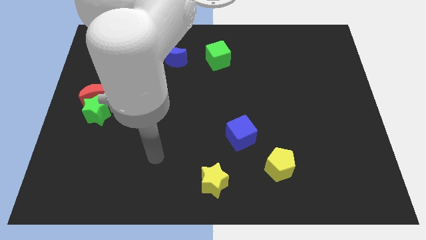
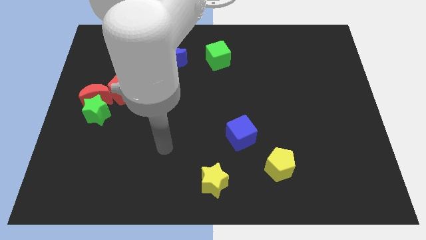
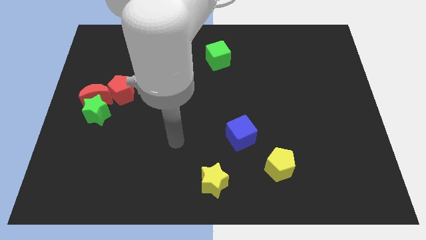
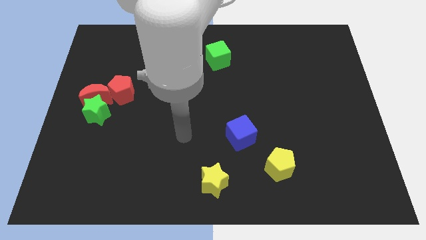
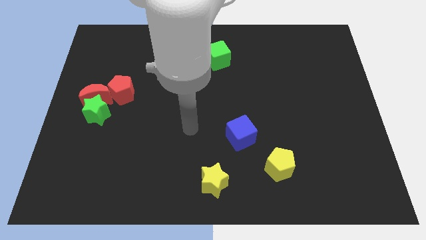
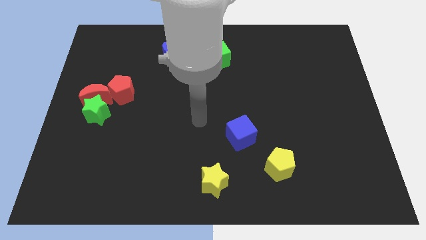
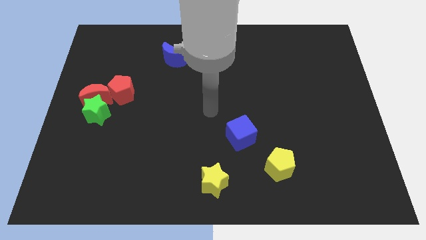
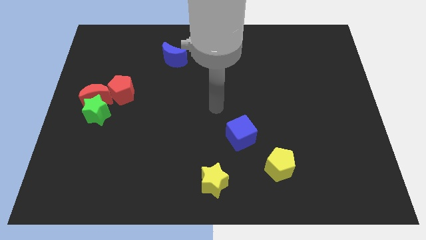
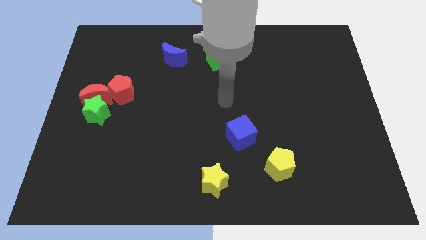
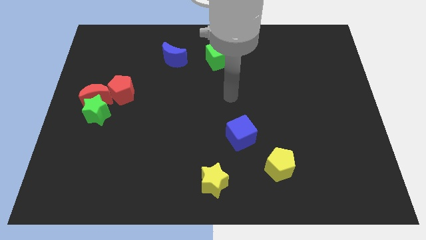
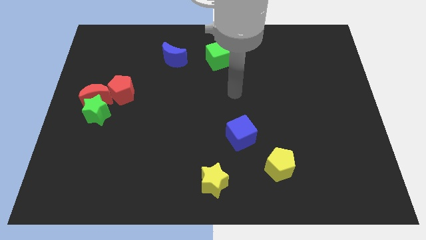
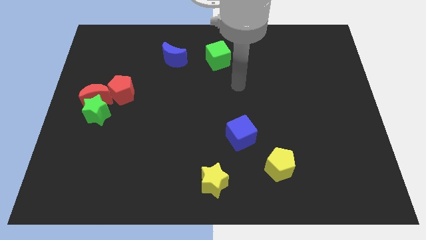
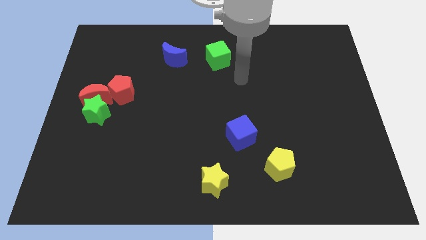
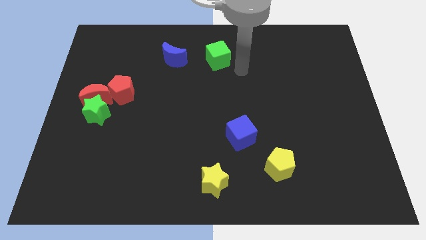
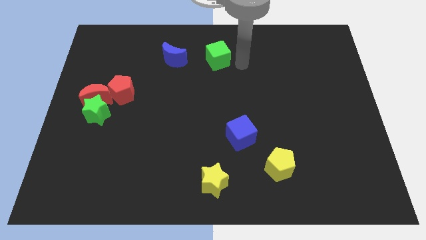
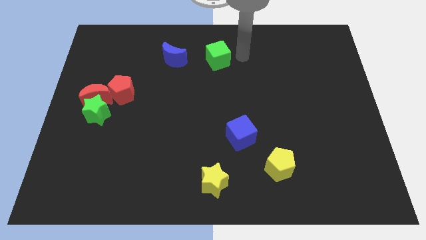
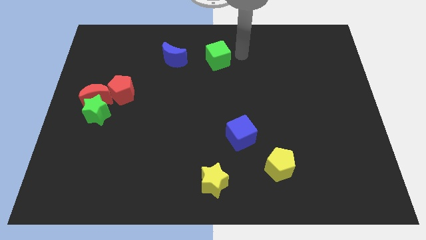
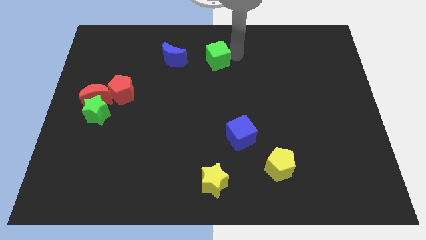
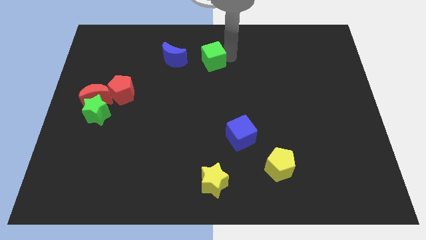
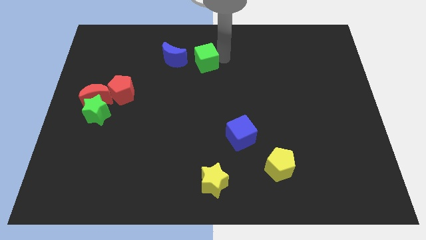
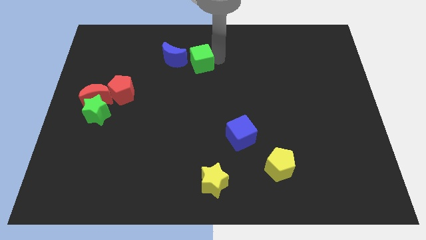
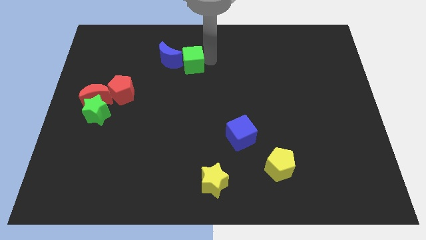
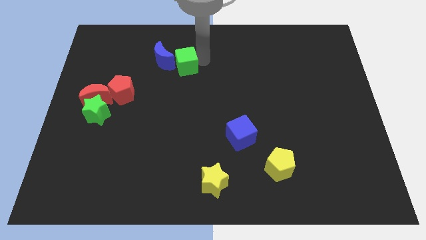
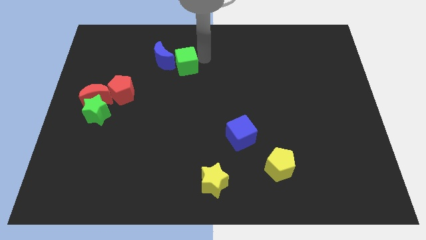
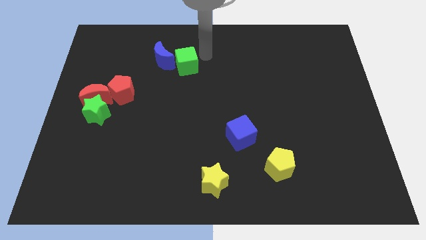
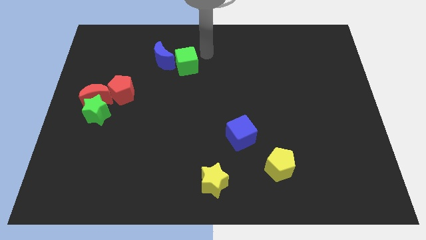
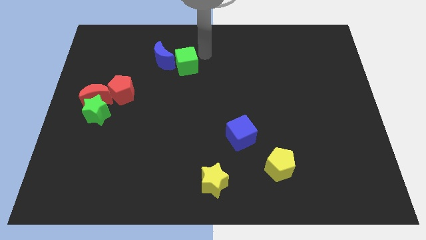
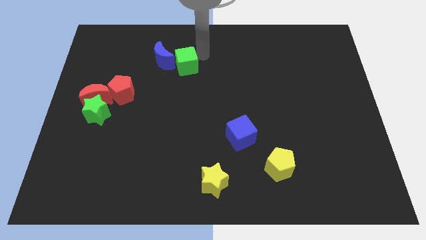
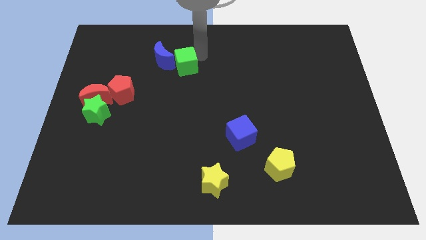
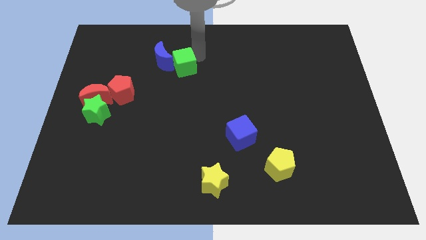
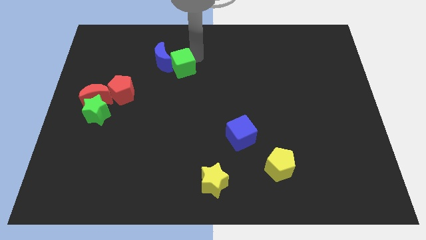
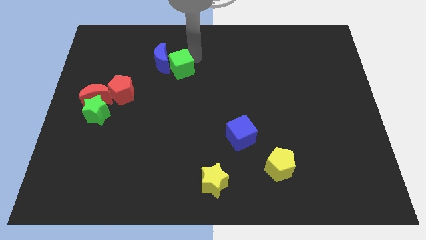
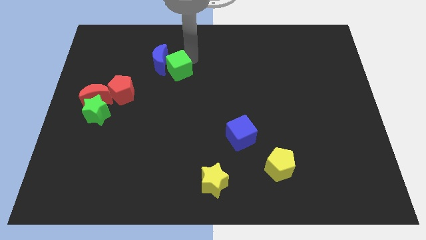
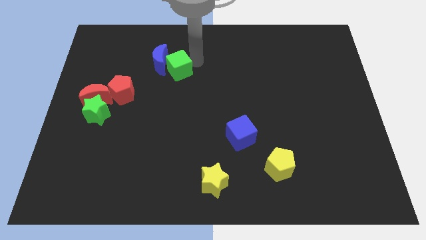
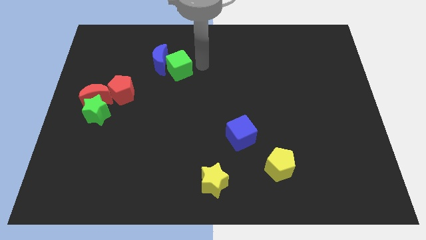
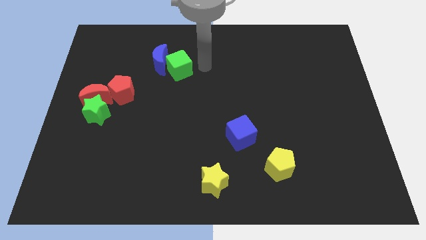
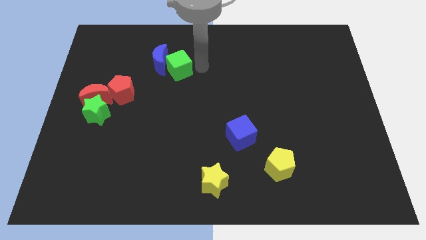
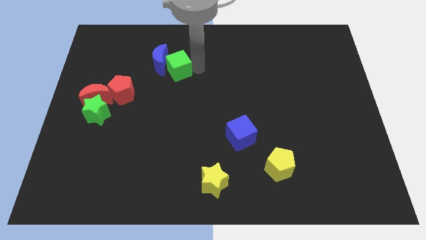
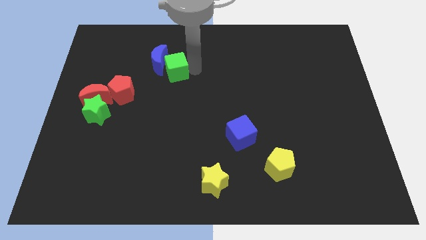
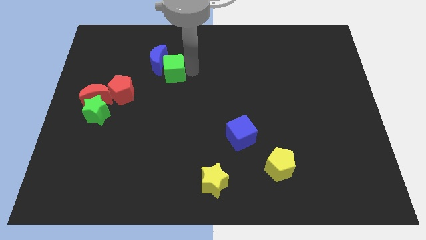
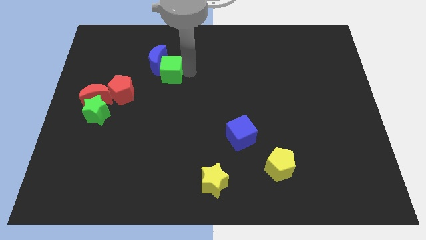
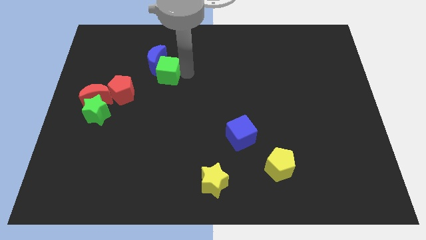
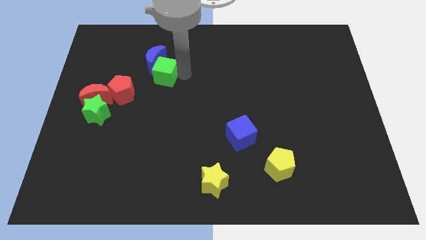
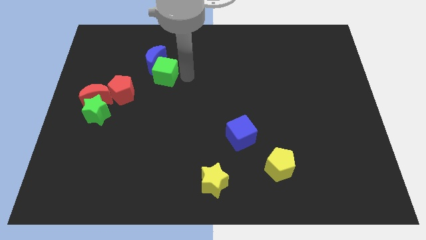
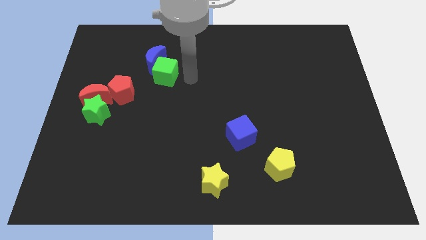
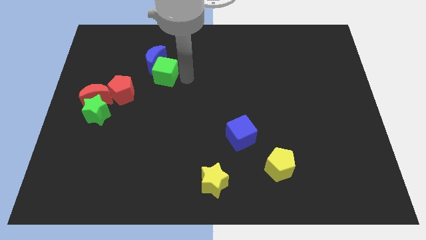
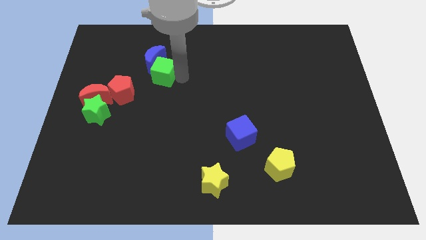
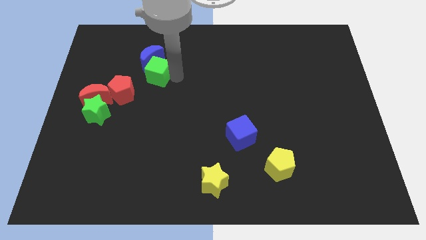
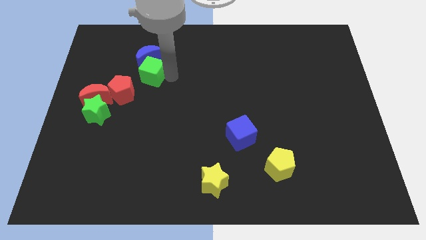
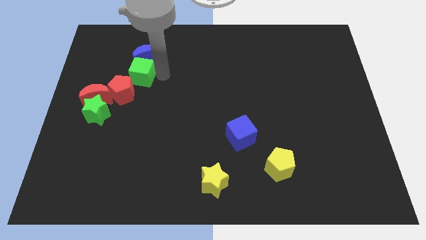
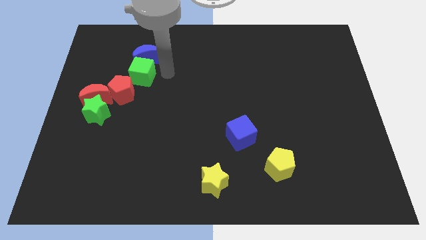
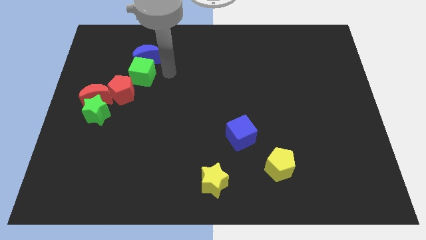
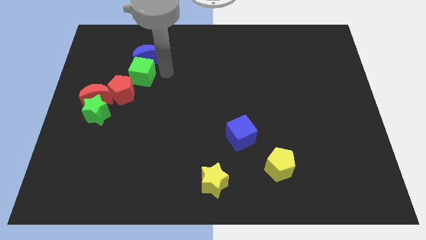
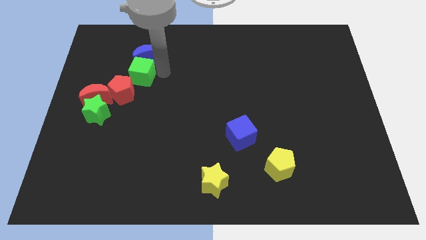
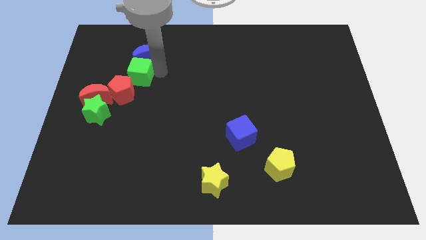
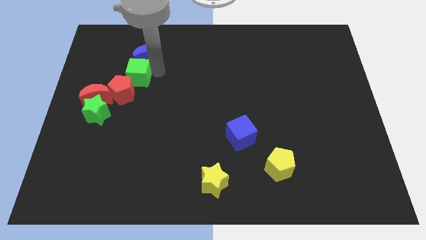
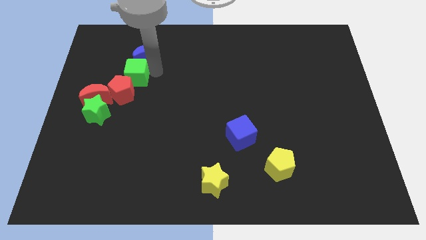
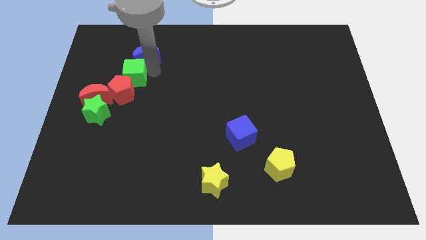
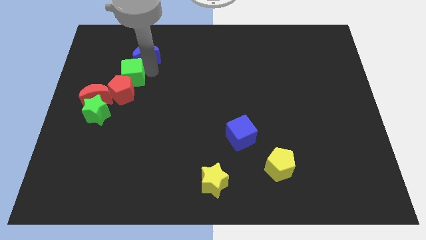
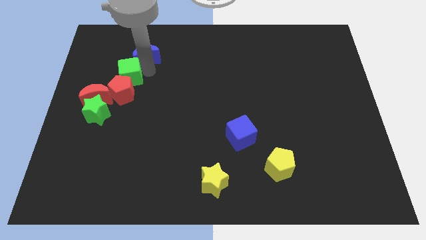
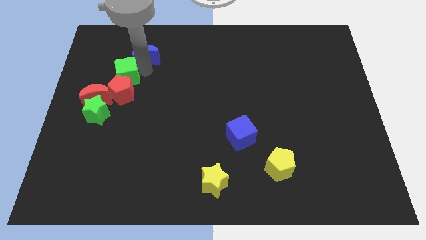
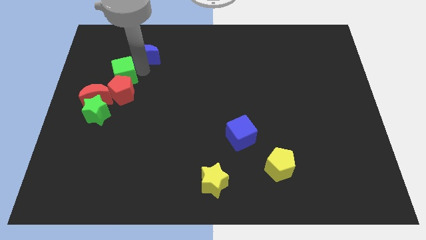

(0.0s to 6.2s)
move the green cube to the top of the green star

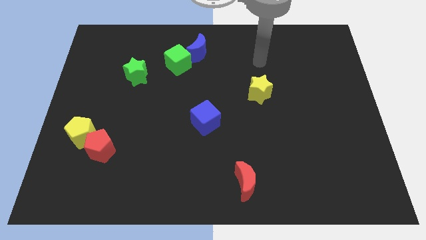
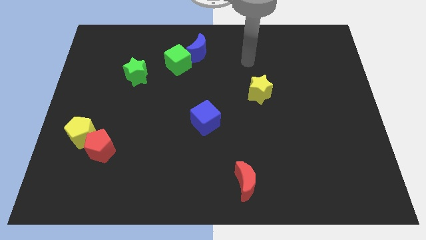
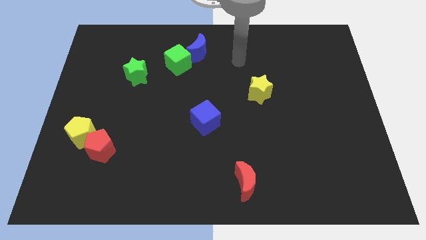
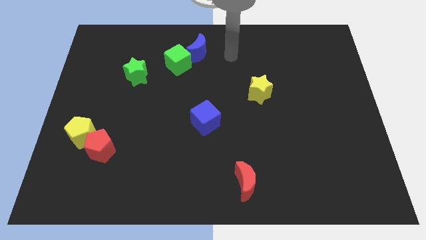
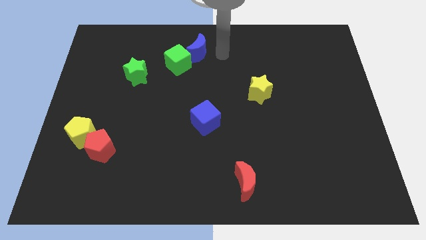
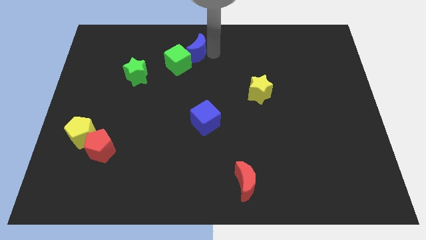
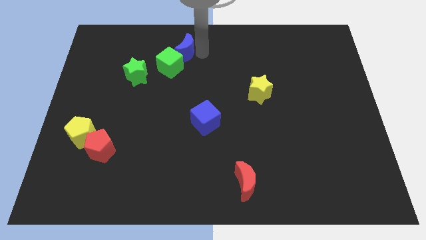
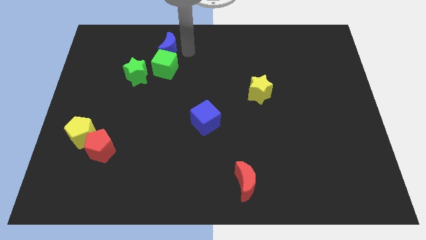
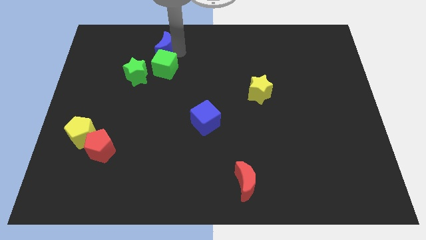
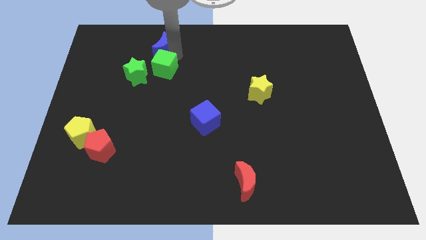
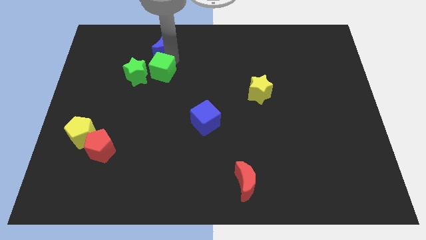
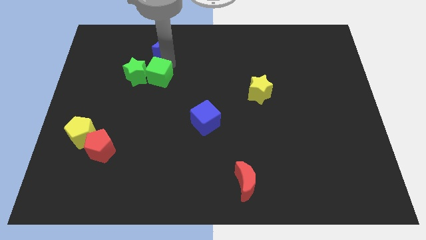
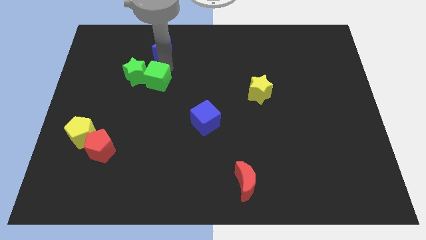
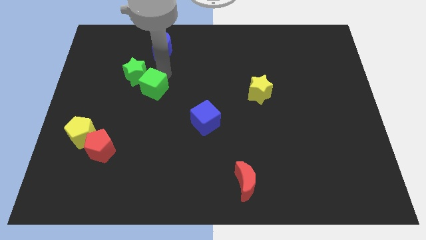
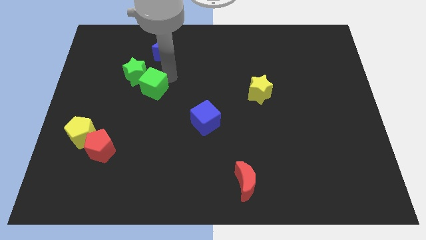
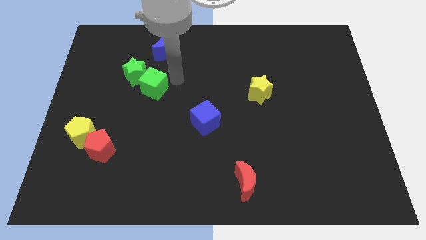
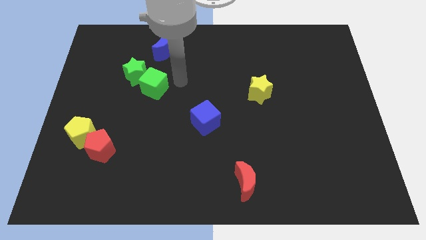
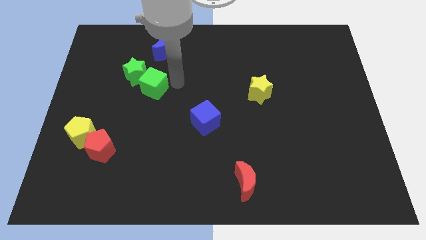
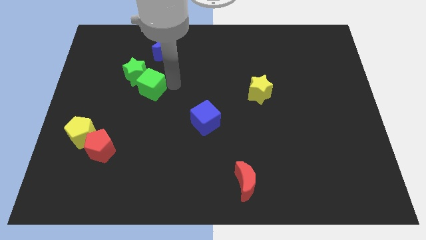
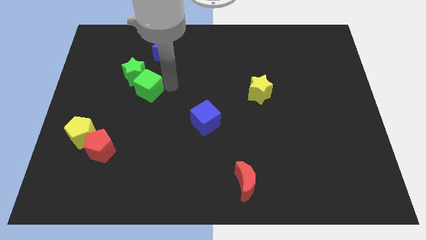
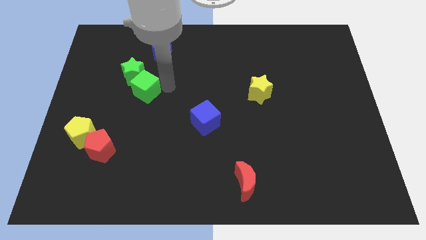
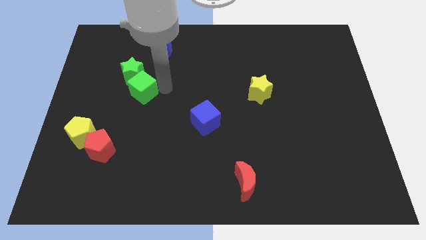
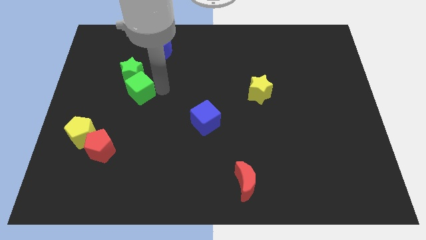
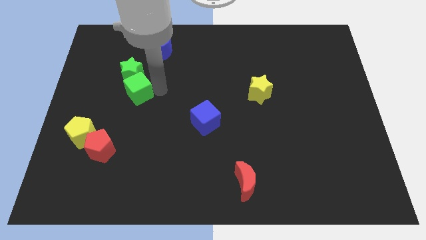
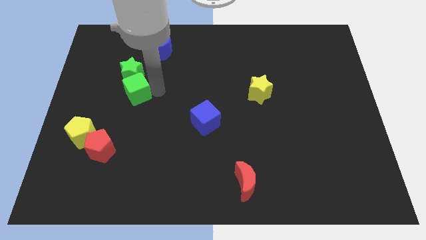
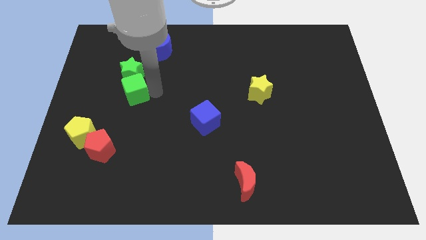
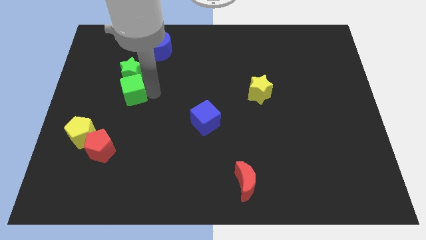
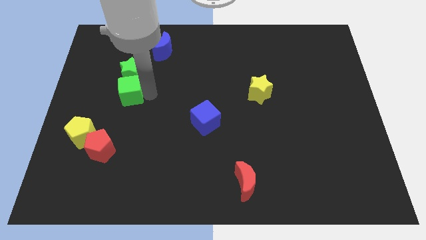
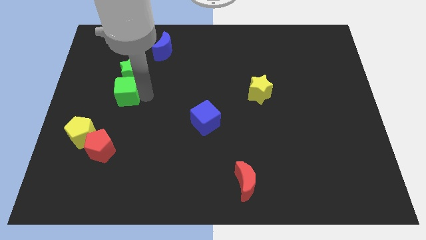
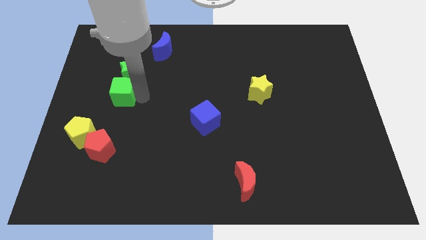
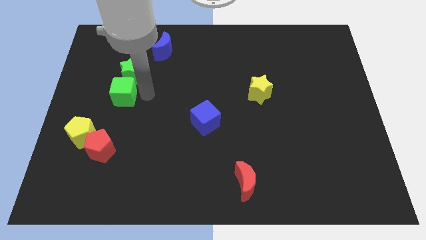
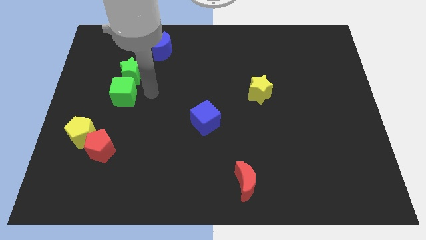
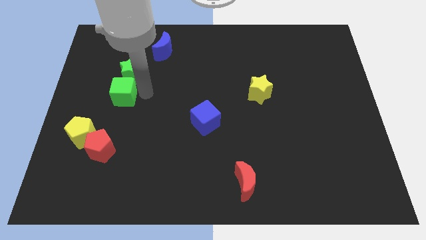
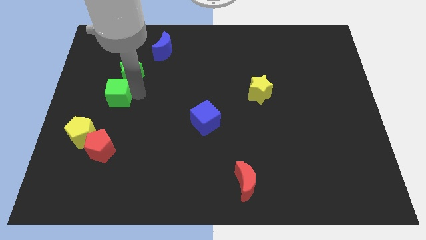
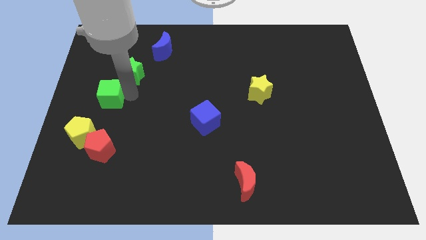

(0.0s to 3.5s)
put the green cube above the yellow pentagon
